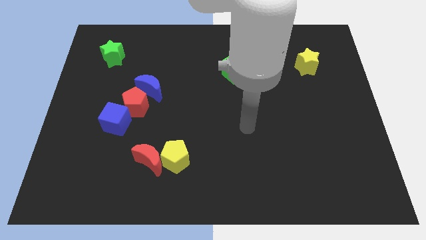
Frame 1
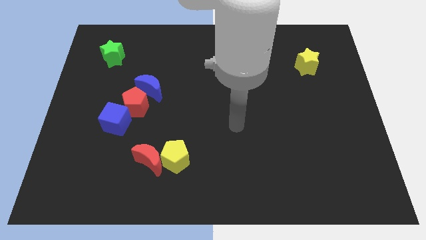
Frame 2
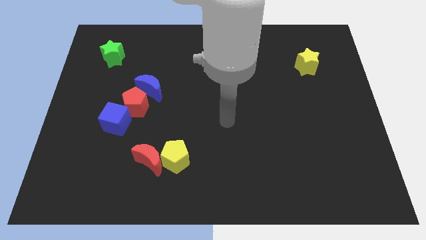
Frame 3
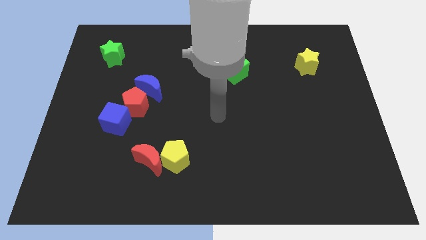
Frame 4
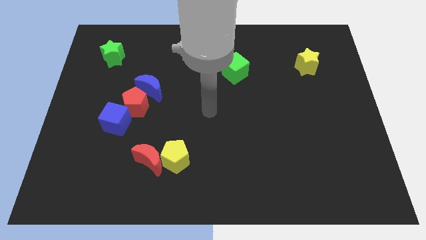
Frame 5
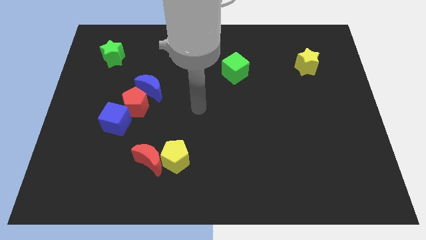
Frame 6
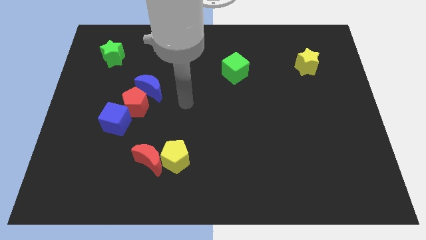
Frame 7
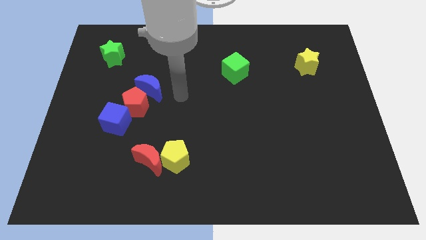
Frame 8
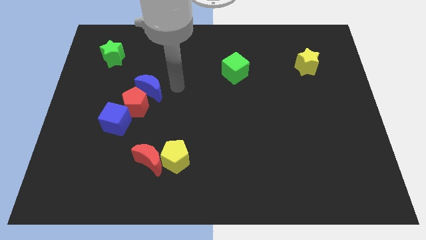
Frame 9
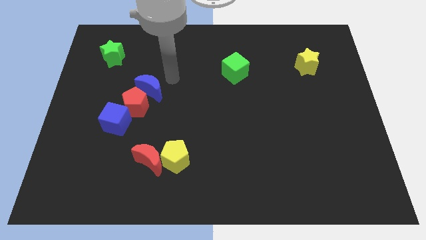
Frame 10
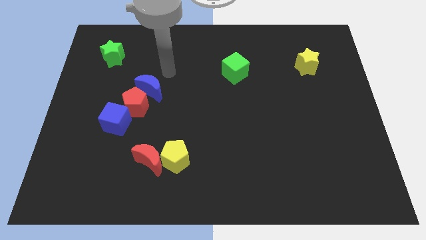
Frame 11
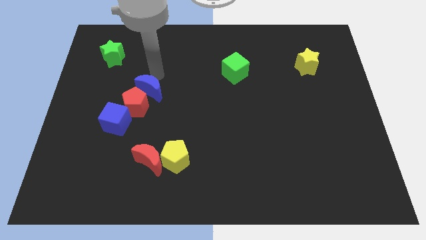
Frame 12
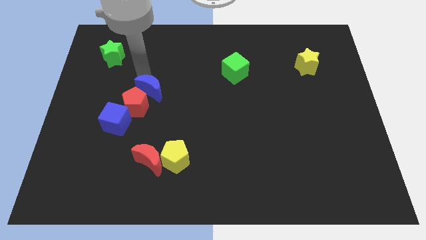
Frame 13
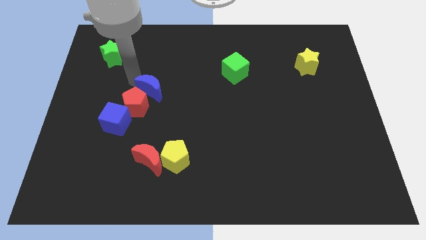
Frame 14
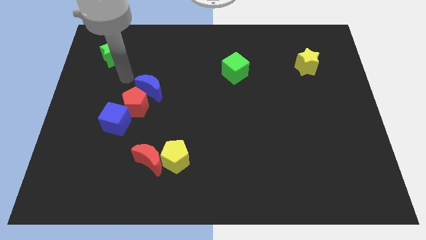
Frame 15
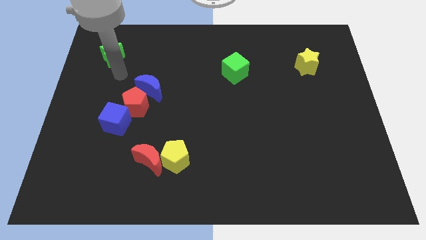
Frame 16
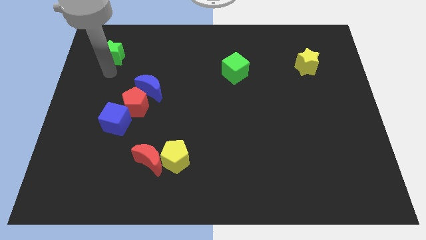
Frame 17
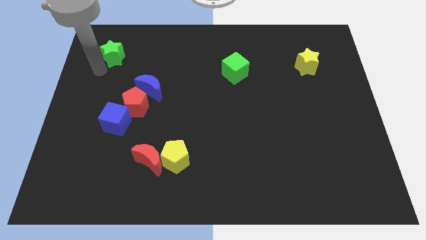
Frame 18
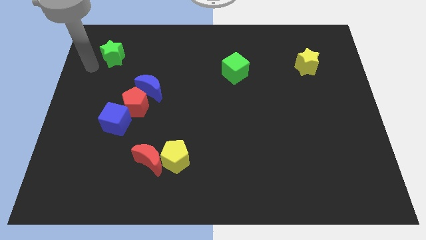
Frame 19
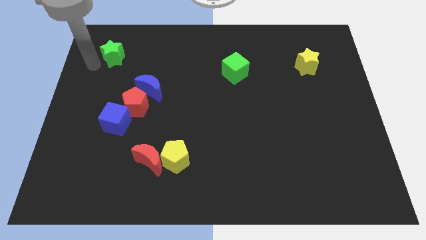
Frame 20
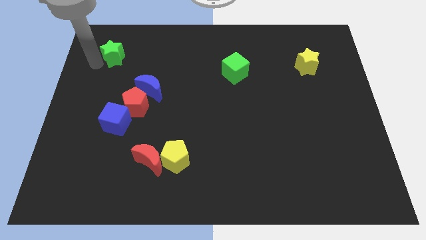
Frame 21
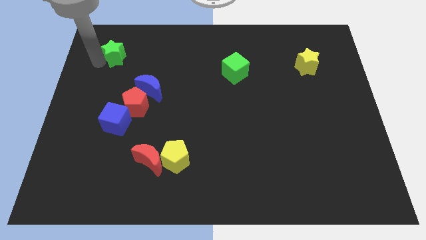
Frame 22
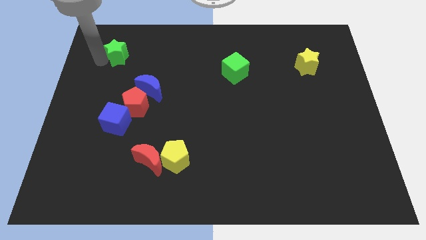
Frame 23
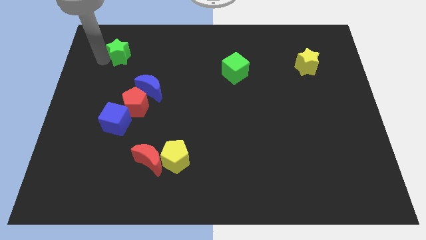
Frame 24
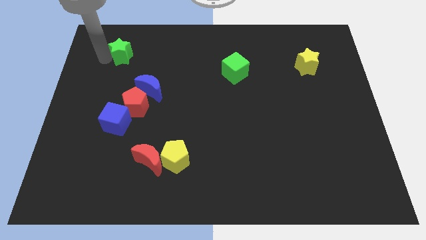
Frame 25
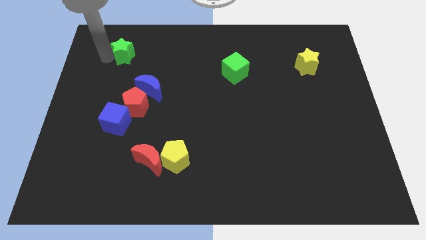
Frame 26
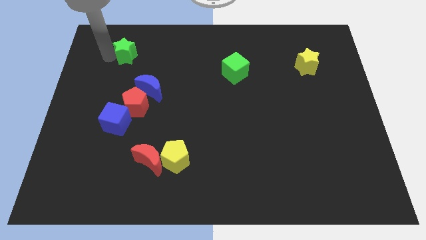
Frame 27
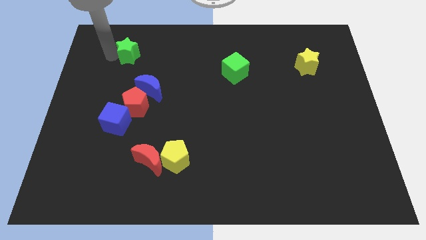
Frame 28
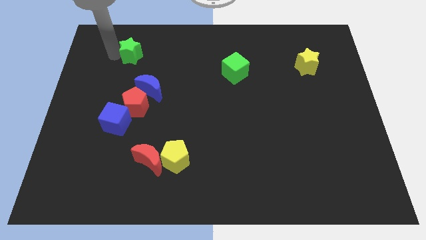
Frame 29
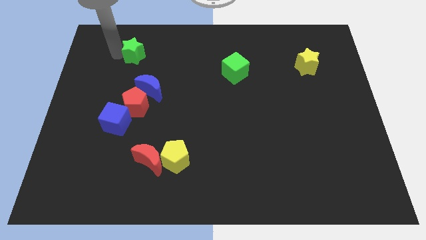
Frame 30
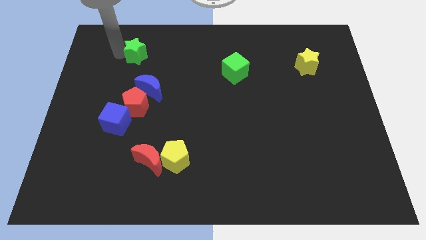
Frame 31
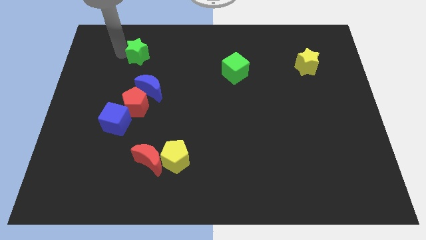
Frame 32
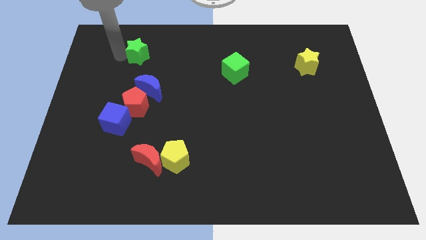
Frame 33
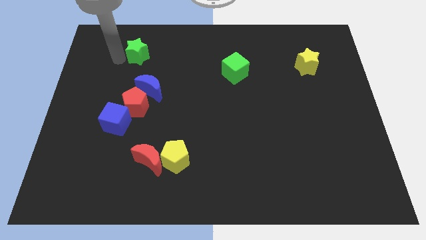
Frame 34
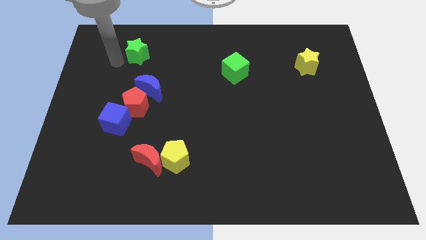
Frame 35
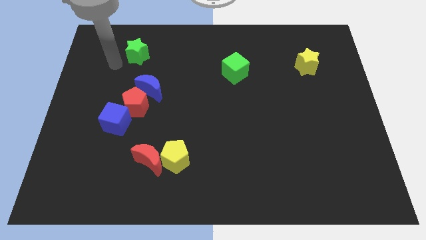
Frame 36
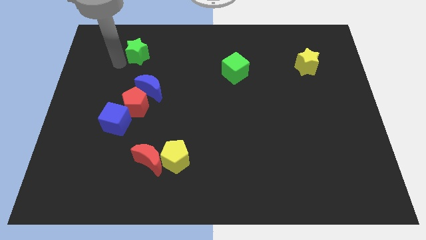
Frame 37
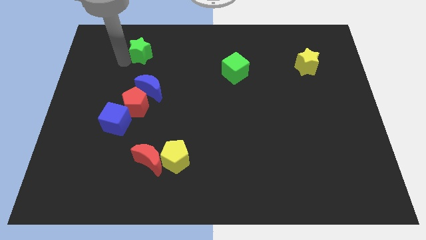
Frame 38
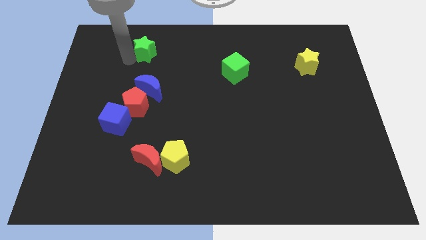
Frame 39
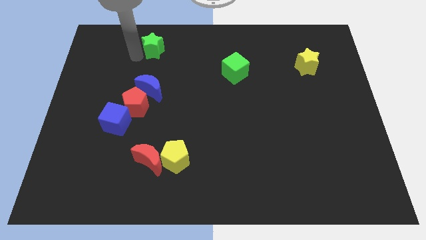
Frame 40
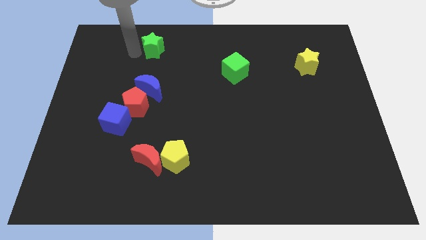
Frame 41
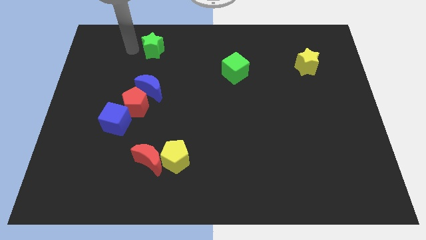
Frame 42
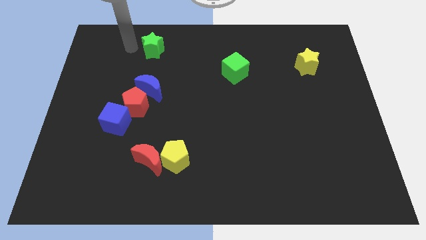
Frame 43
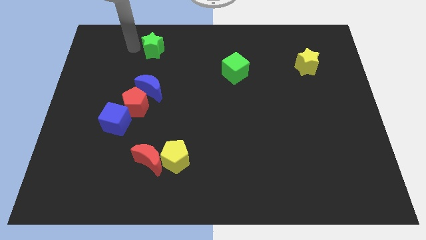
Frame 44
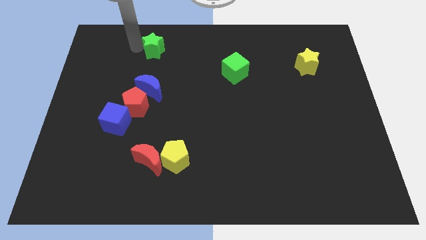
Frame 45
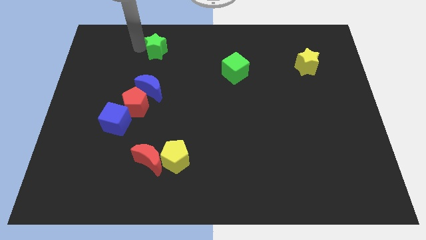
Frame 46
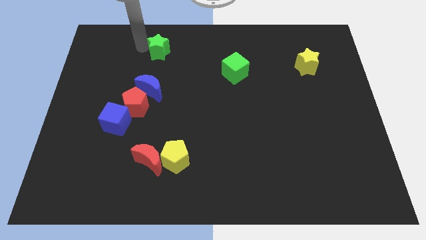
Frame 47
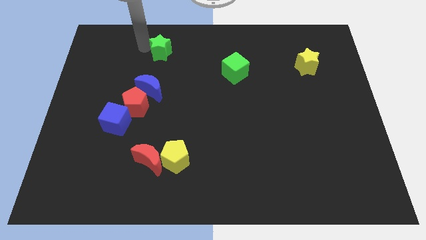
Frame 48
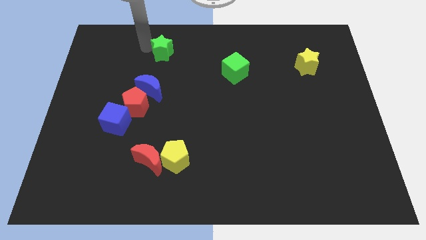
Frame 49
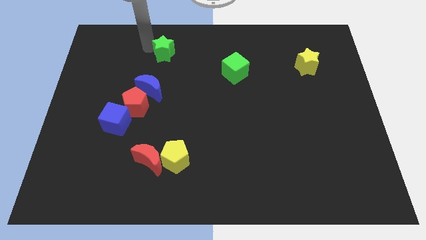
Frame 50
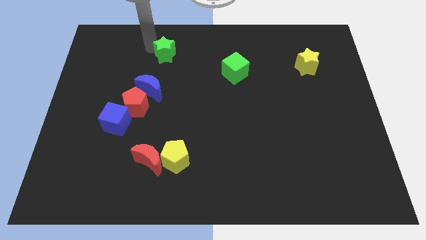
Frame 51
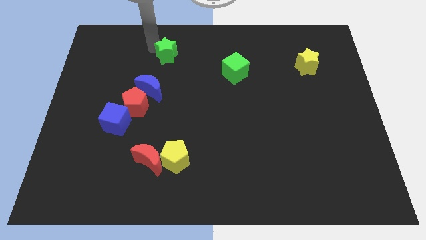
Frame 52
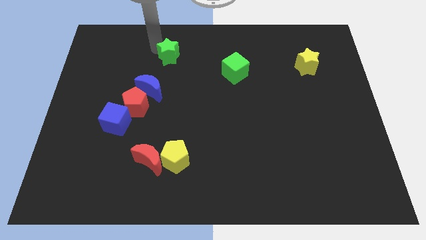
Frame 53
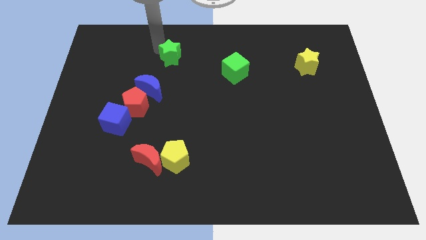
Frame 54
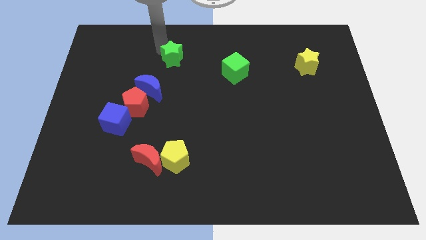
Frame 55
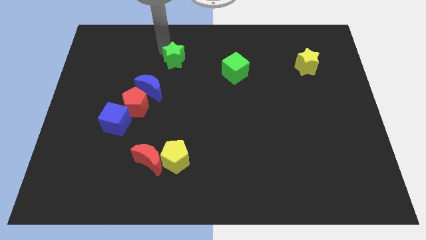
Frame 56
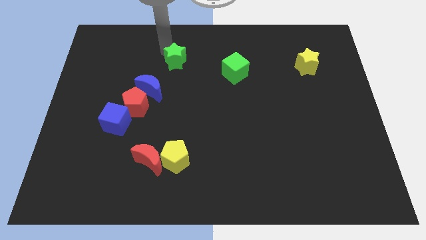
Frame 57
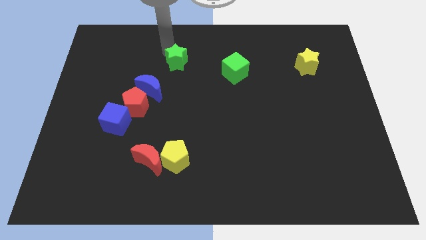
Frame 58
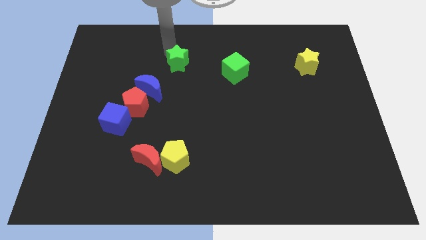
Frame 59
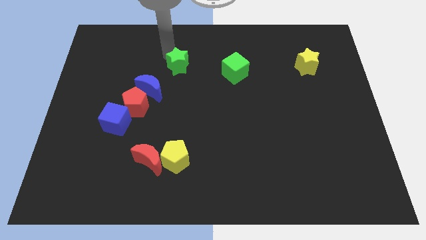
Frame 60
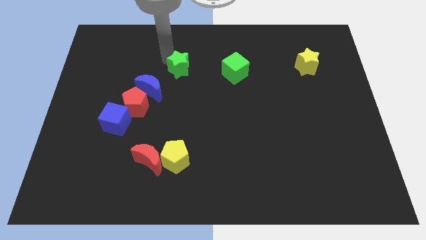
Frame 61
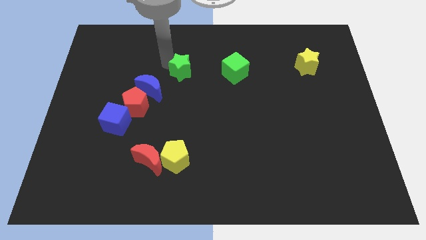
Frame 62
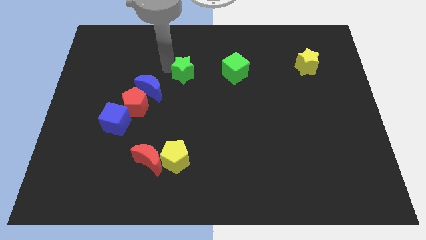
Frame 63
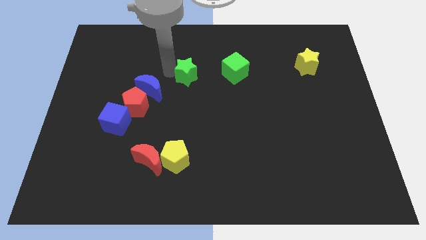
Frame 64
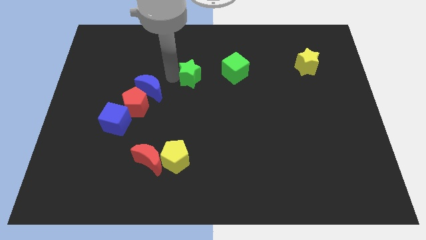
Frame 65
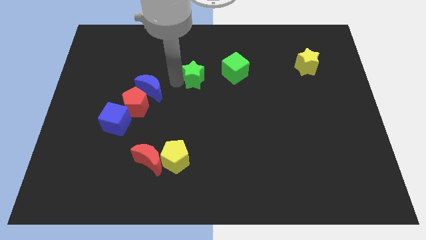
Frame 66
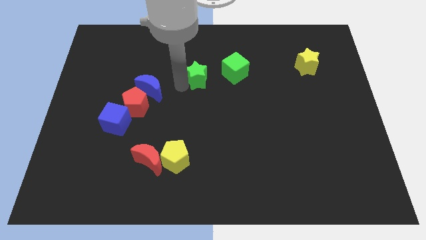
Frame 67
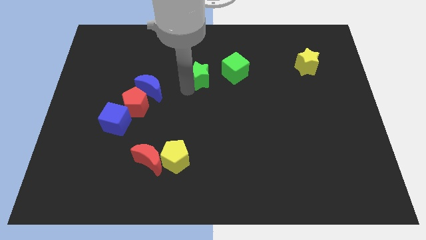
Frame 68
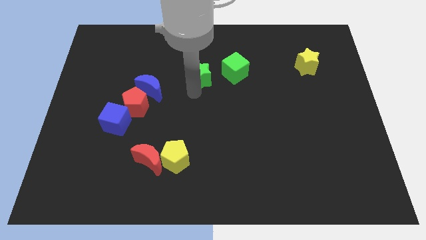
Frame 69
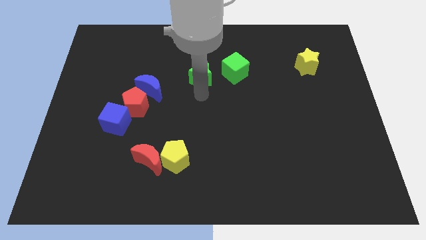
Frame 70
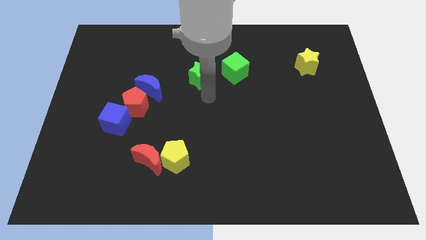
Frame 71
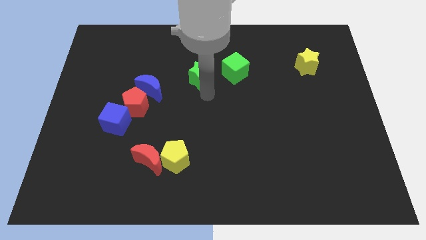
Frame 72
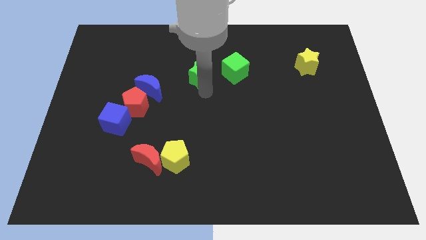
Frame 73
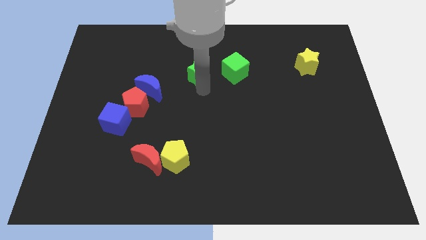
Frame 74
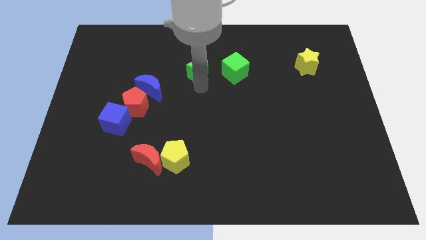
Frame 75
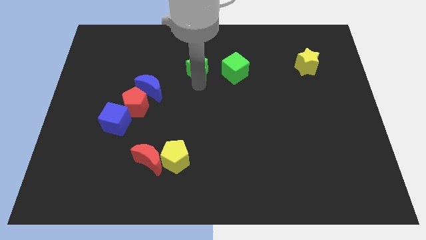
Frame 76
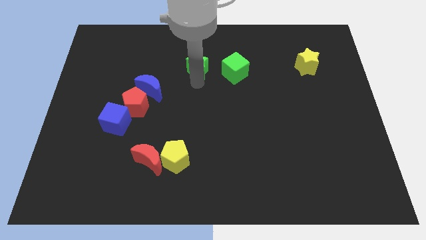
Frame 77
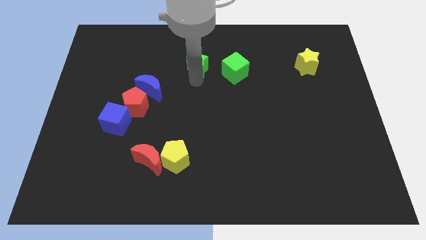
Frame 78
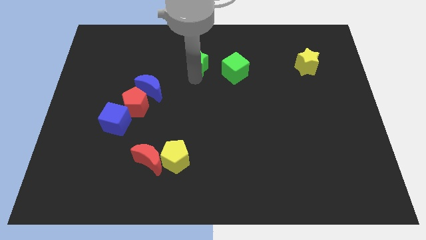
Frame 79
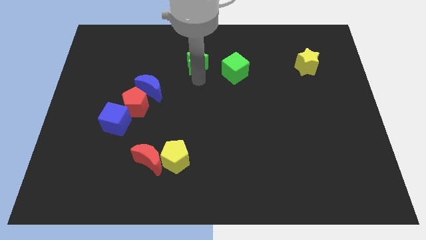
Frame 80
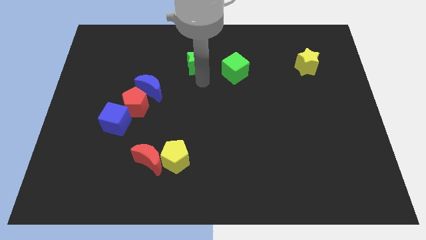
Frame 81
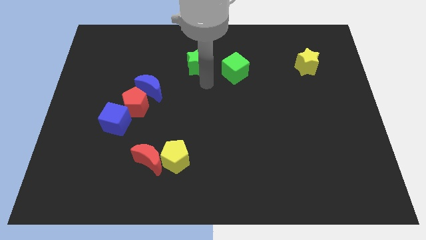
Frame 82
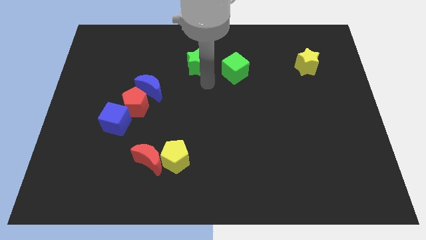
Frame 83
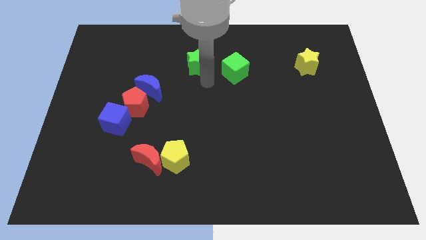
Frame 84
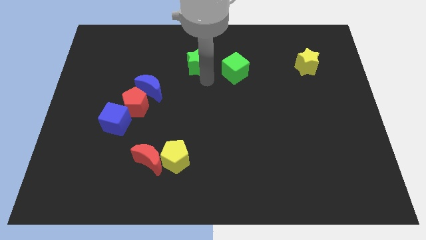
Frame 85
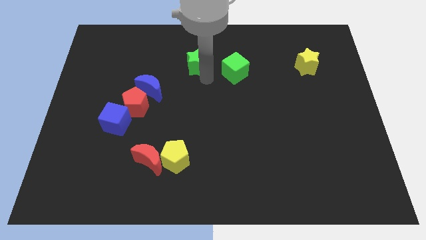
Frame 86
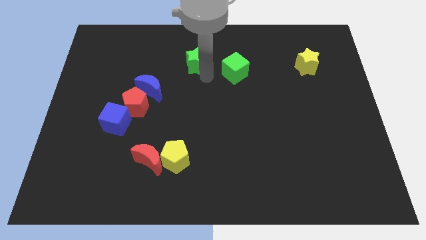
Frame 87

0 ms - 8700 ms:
put the green star diagonally up and to the left of the green cube
